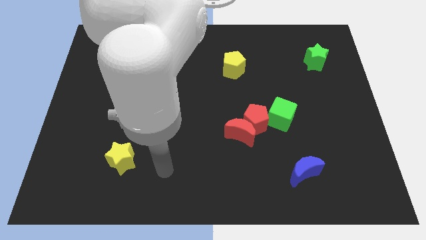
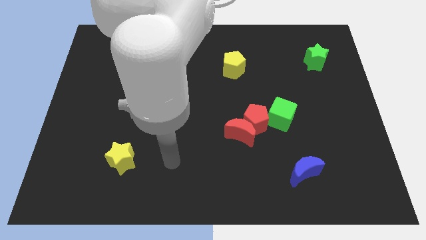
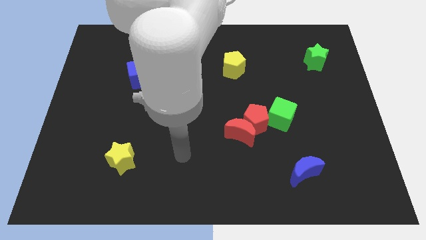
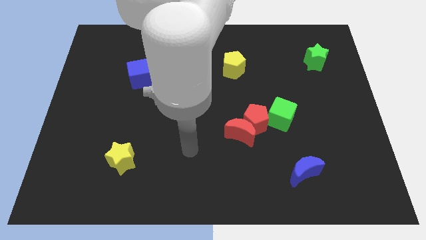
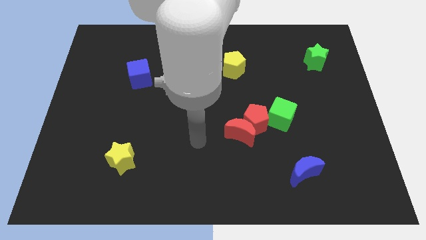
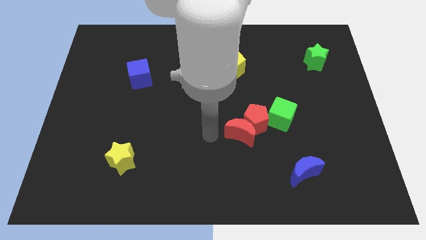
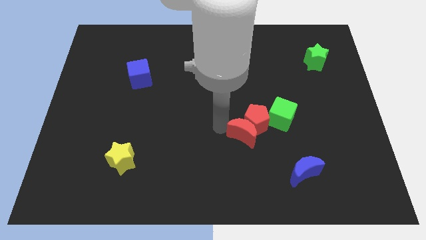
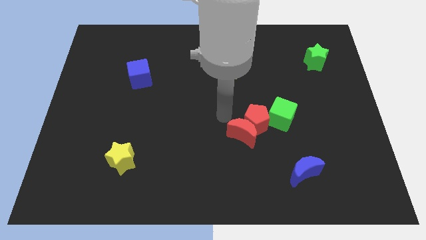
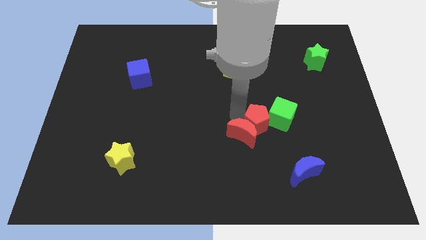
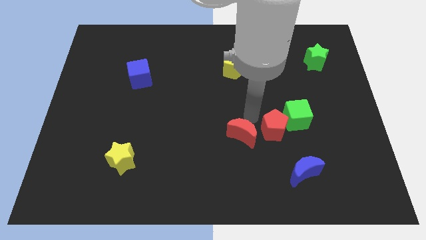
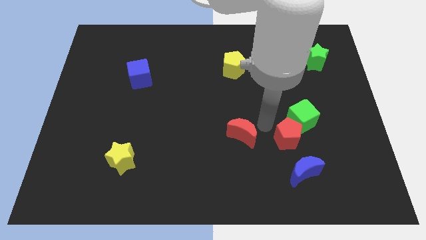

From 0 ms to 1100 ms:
pull the red moon apart from the red pentagon

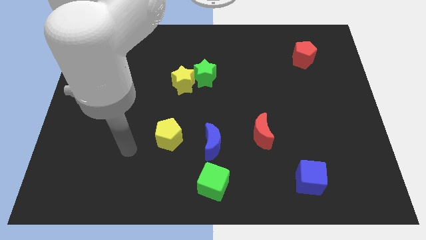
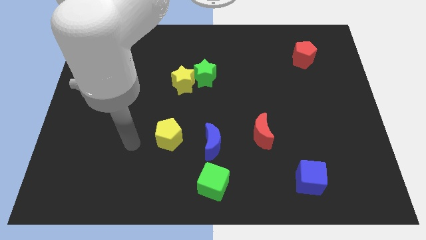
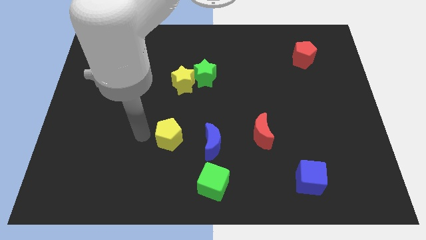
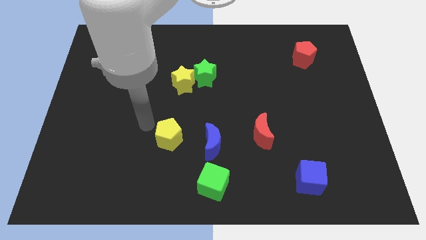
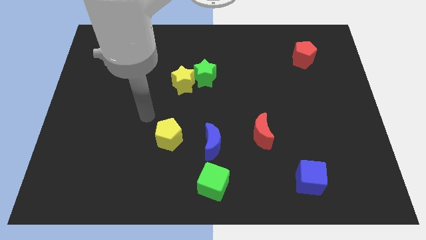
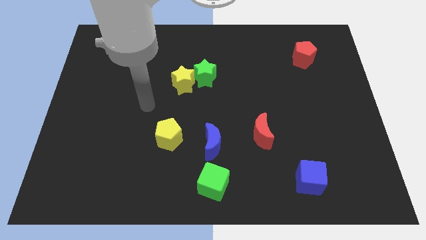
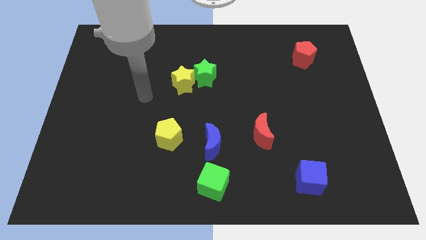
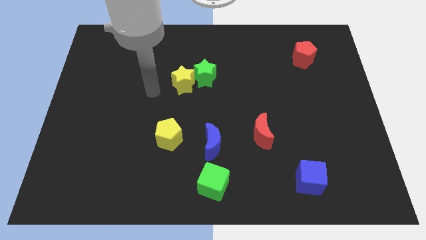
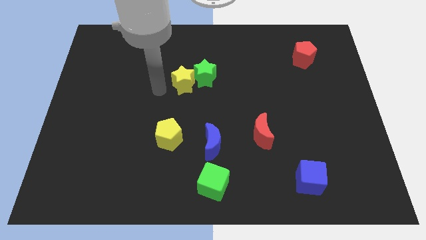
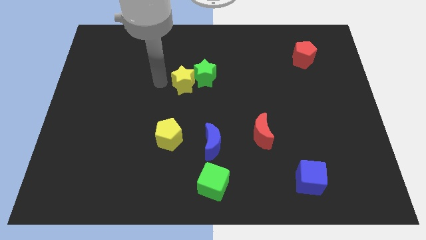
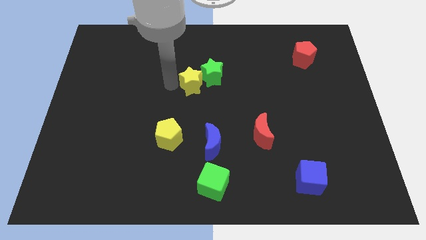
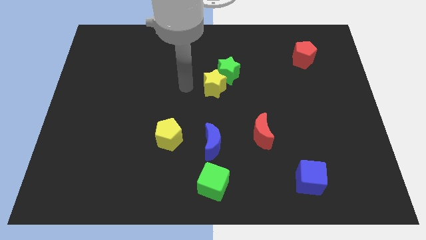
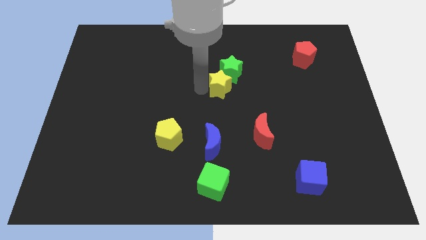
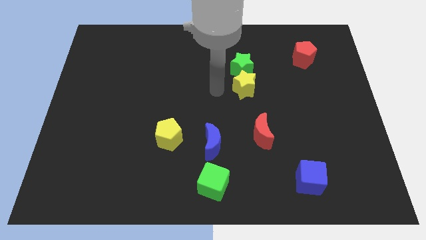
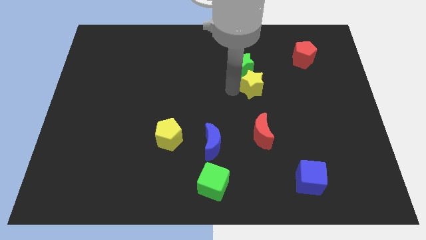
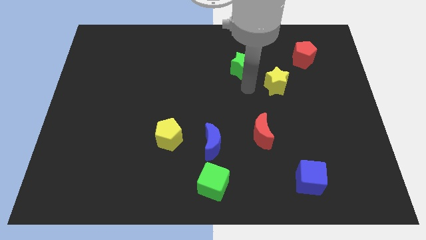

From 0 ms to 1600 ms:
move the green star away from the yellow star

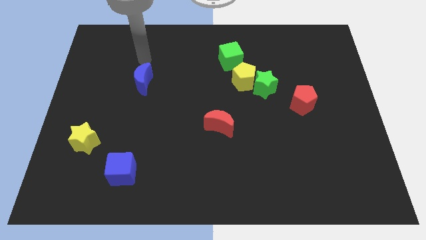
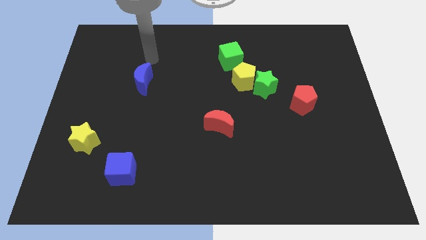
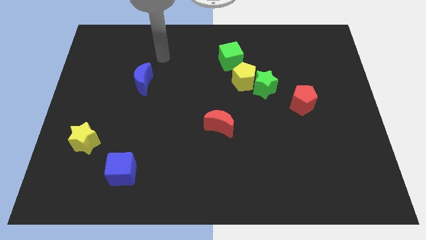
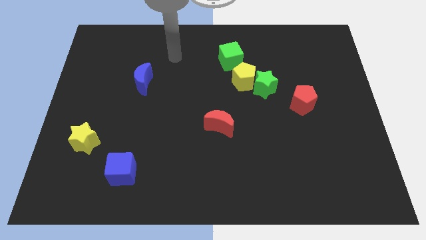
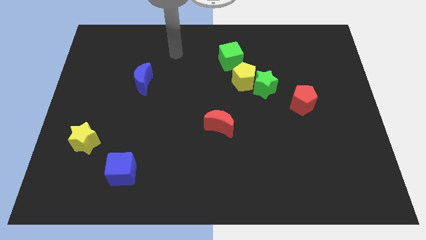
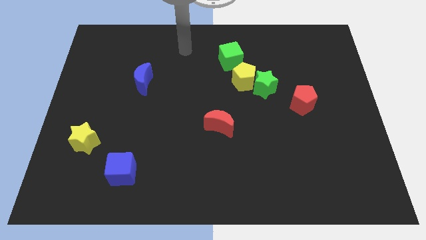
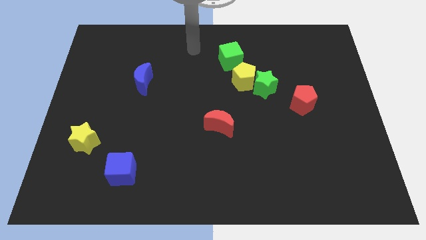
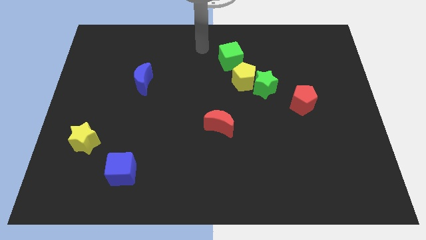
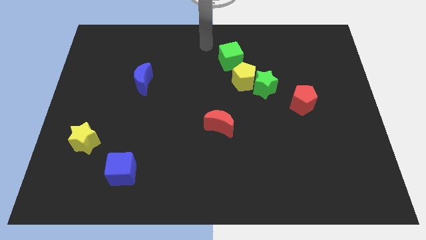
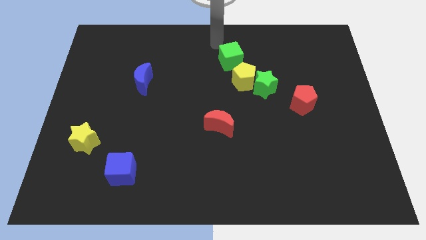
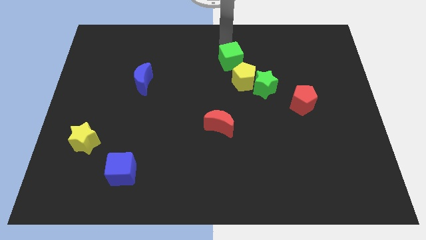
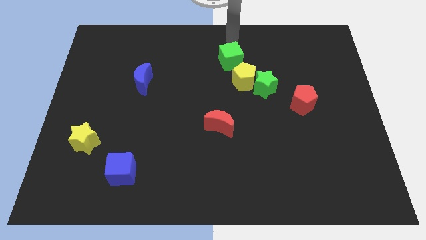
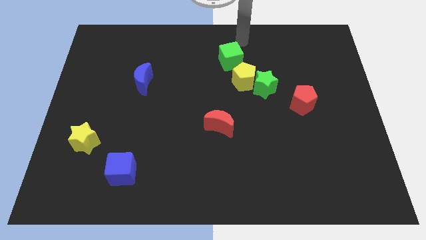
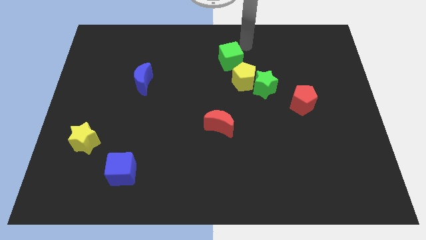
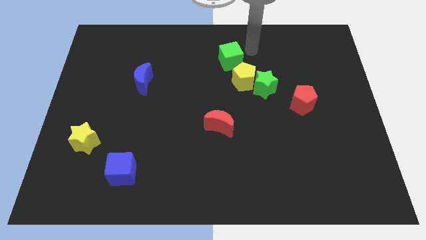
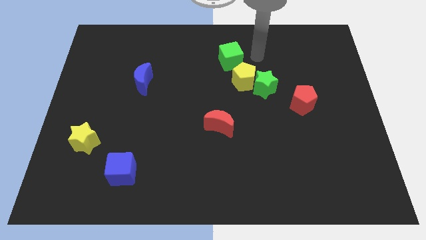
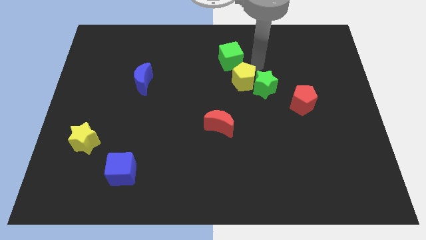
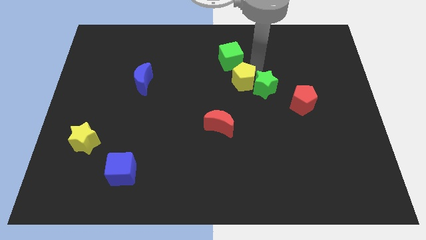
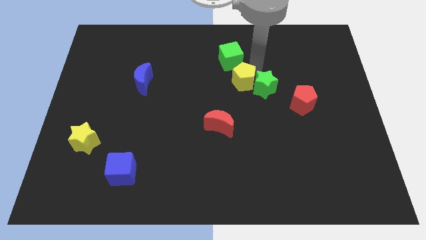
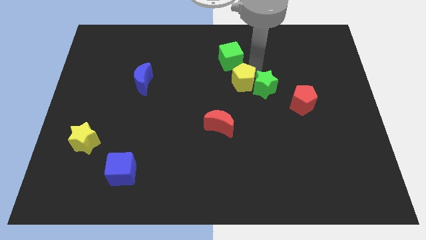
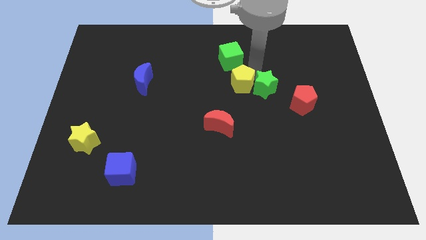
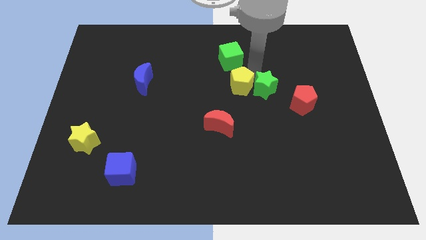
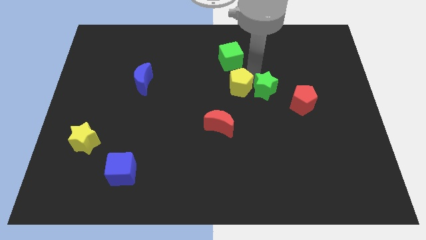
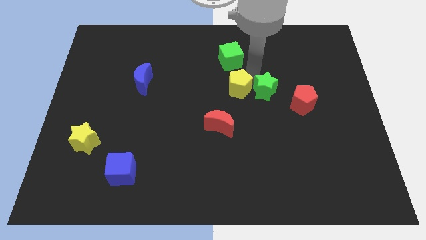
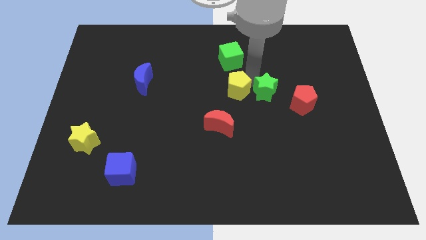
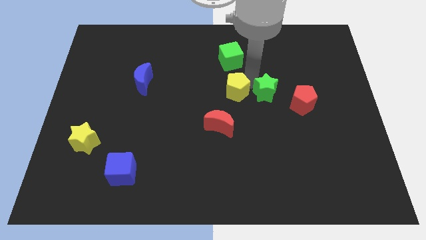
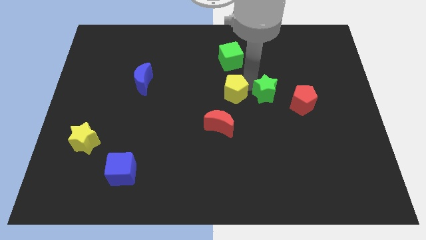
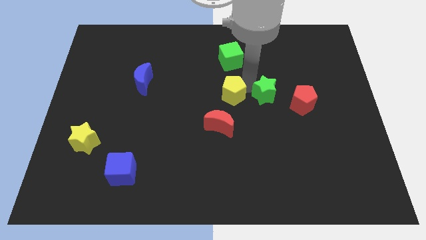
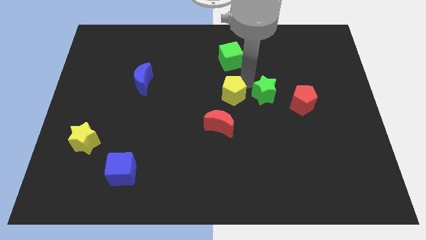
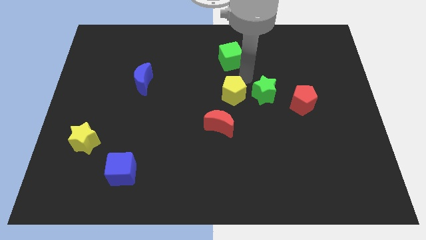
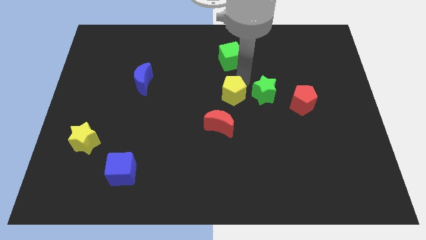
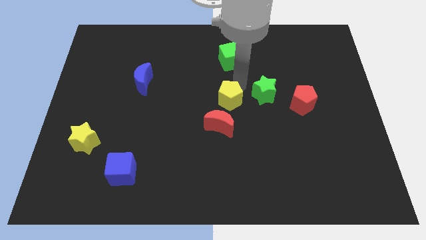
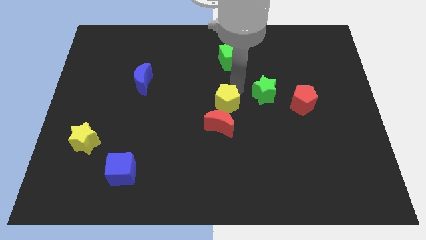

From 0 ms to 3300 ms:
pull the yellow pentagon apart from the green star and green cube

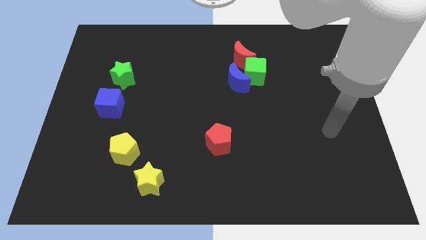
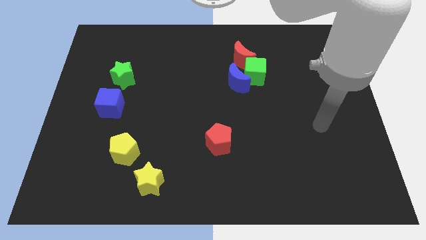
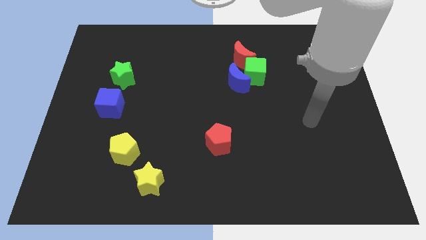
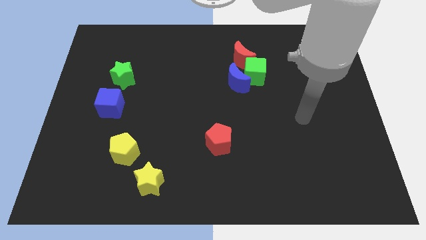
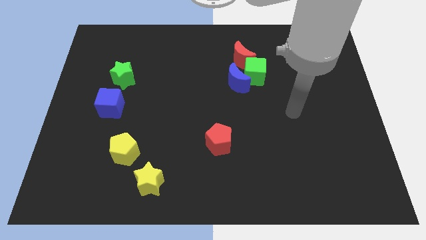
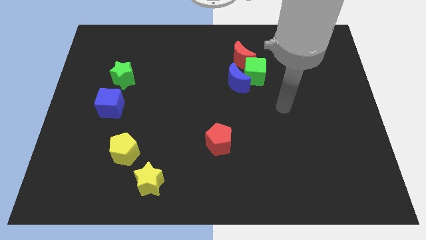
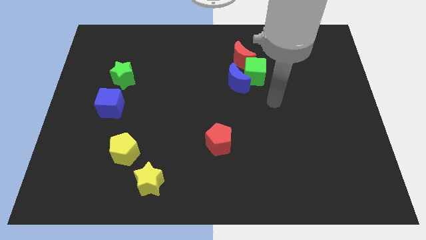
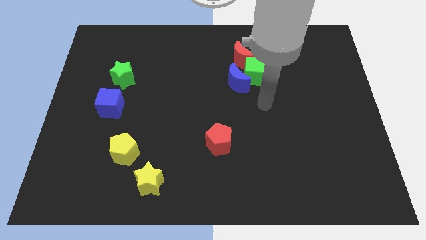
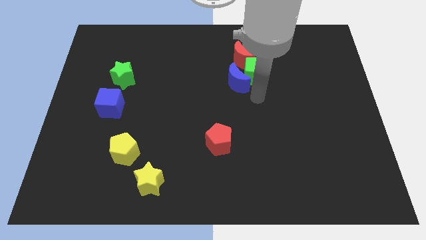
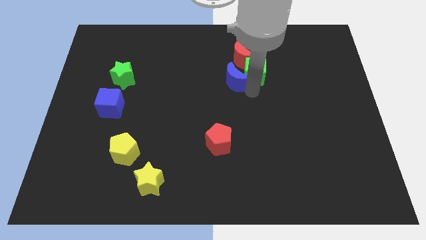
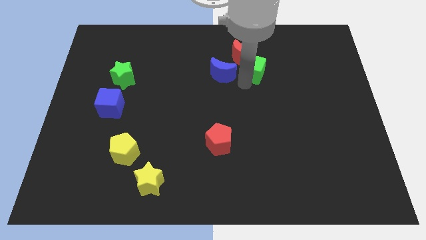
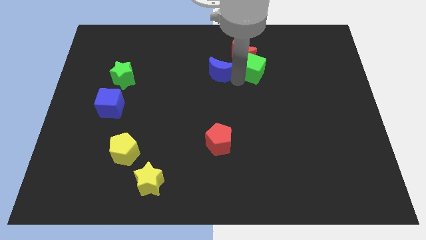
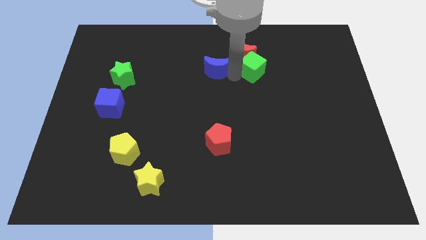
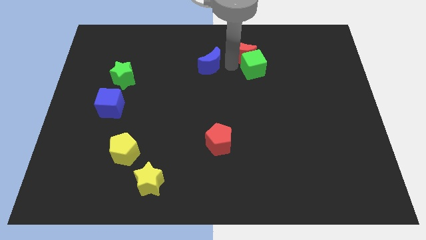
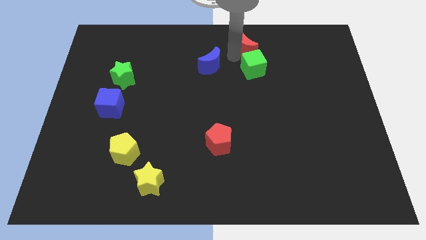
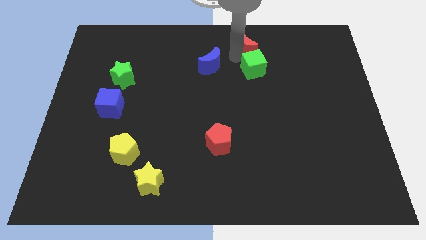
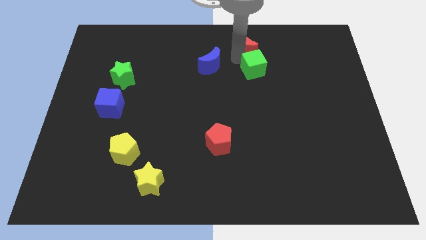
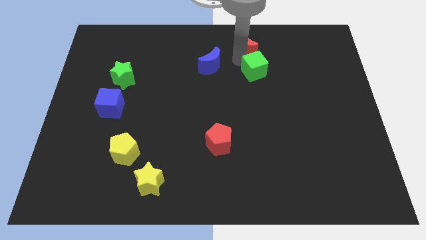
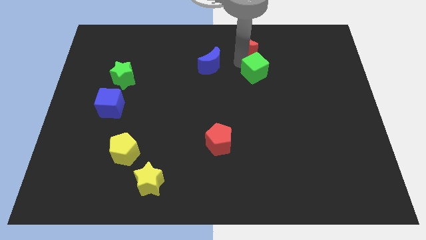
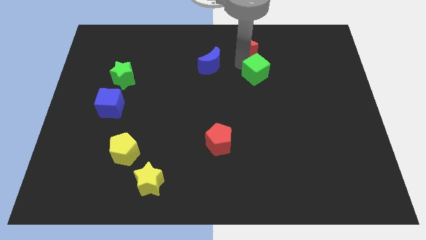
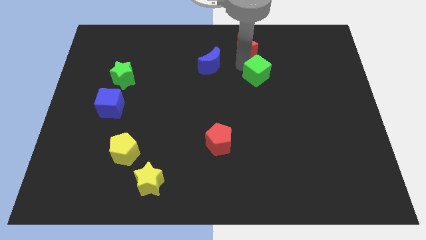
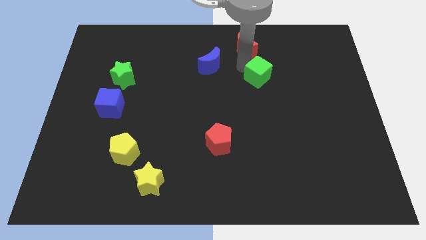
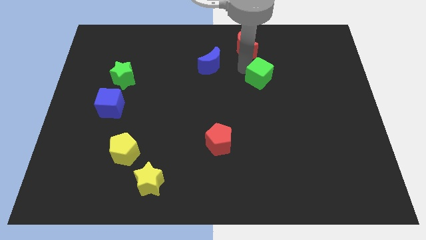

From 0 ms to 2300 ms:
move the green cube away from the blue moon and red moon

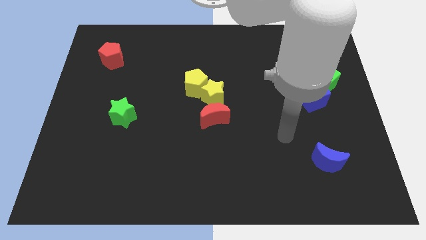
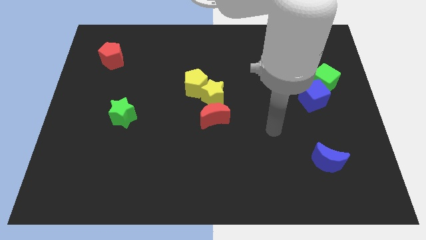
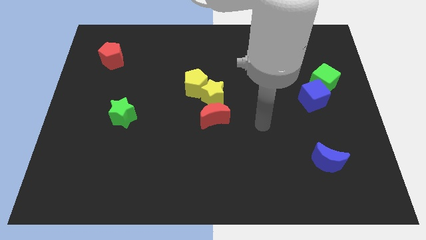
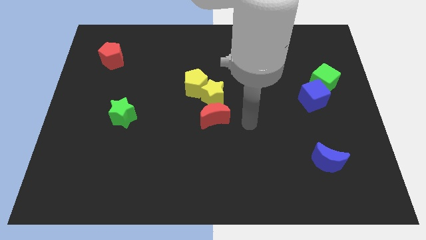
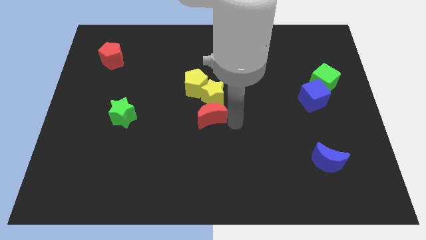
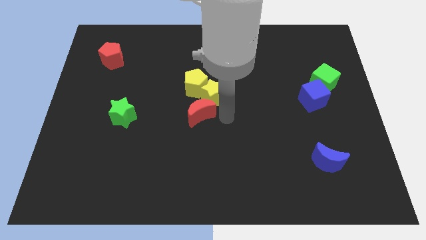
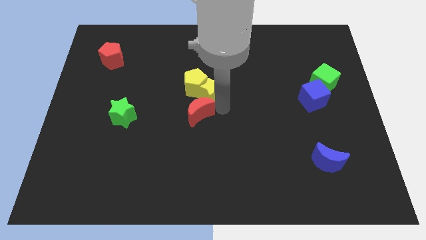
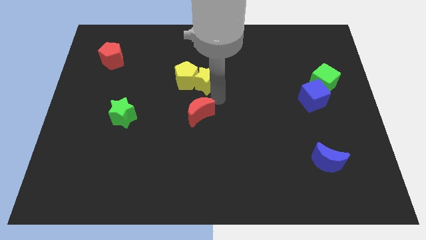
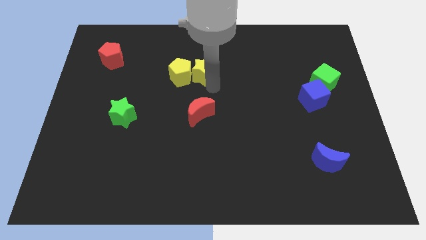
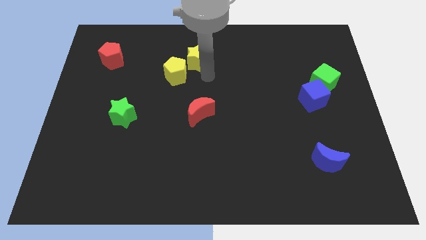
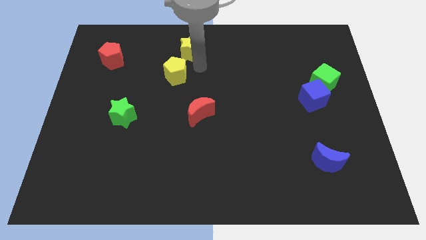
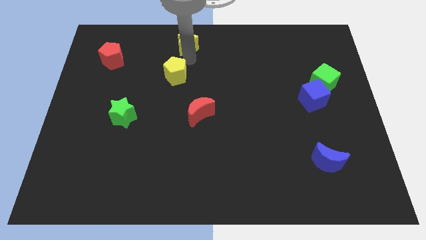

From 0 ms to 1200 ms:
pull the yellow pentagon apart from the yellow star
